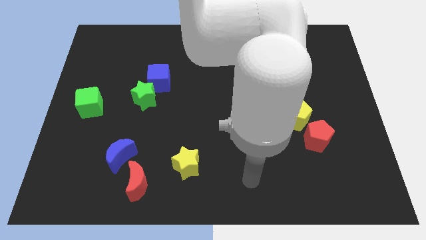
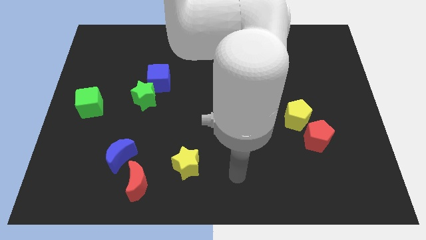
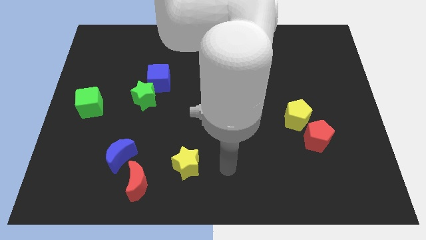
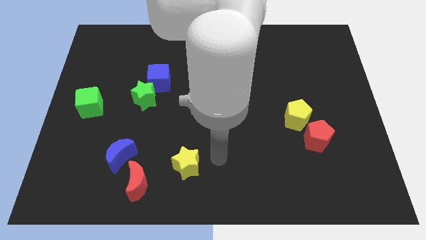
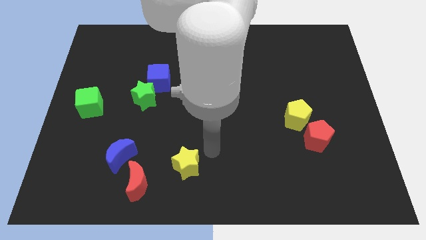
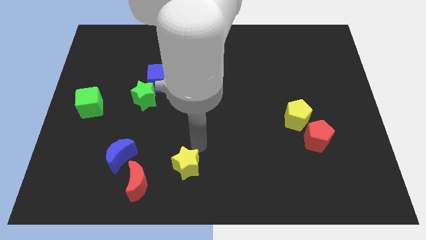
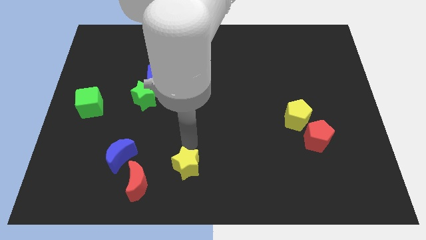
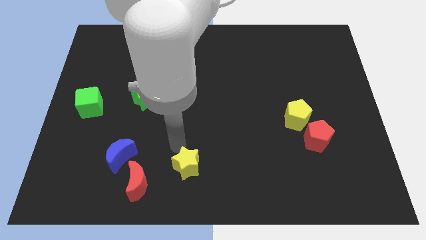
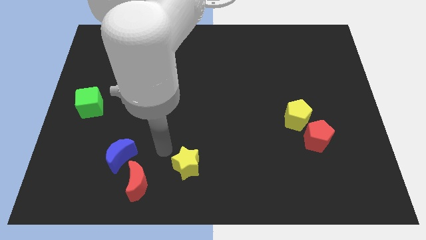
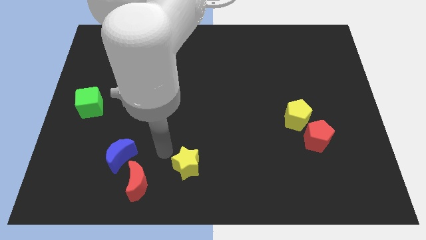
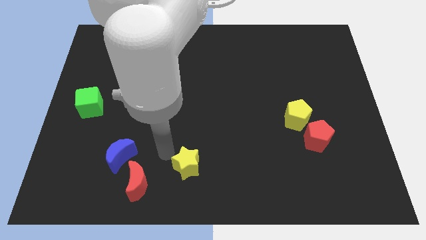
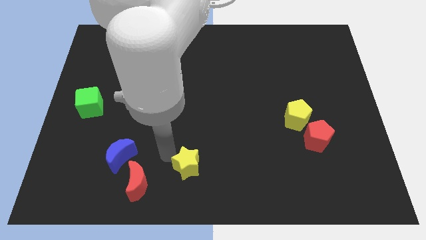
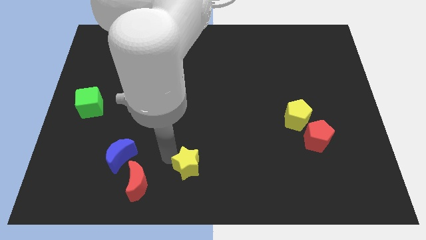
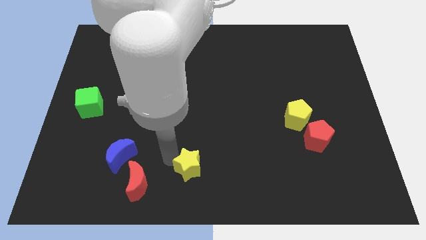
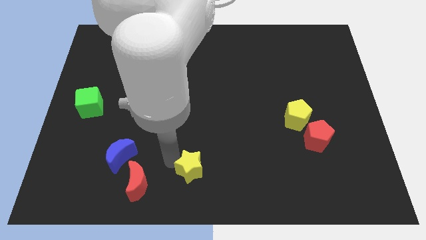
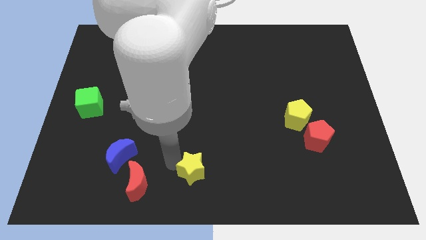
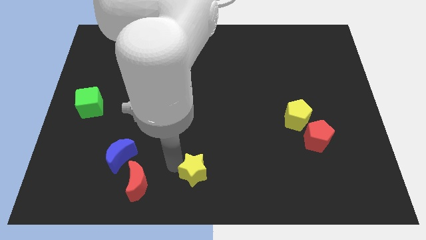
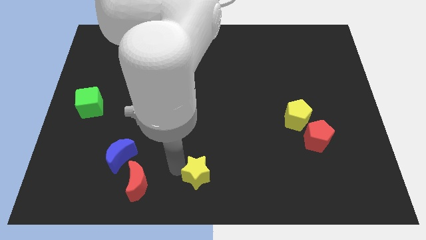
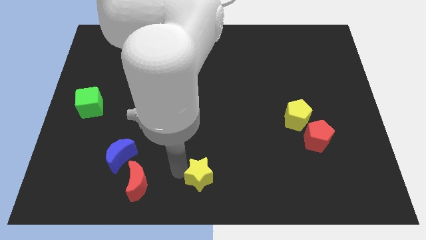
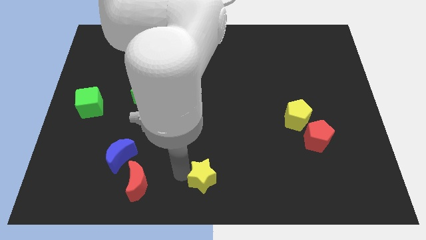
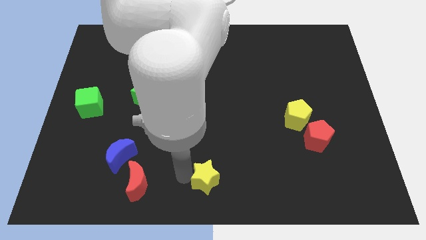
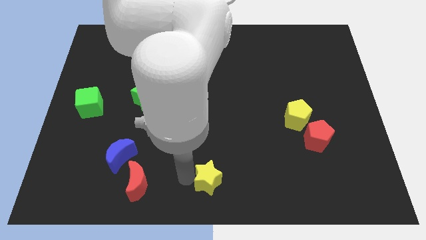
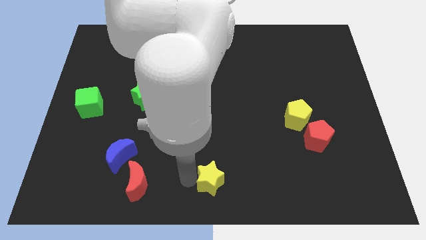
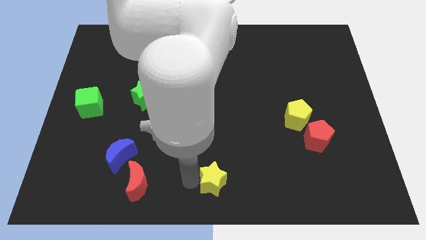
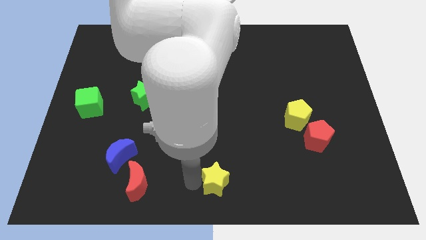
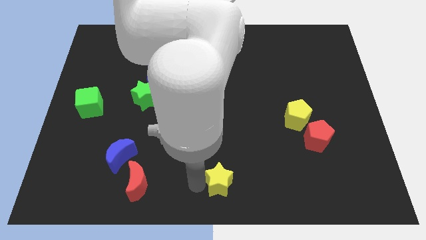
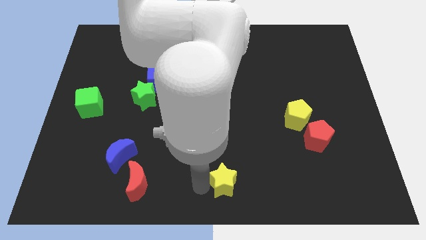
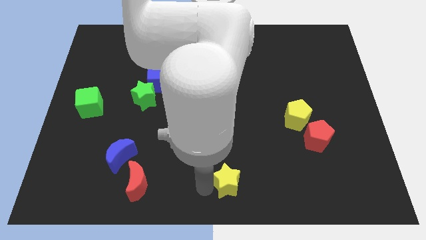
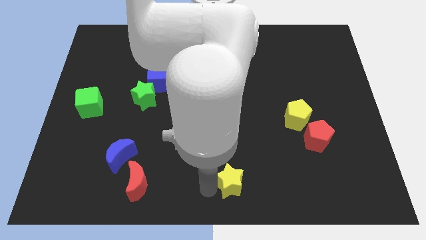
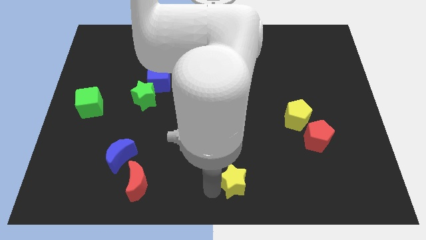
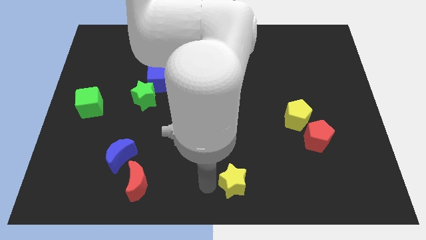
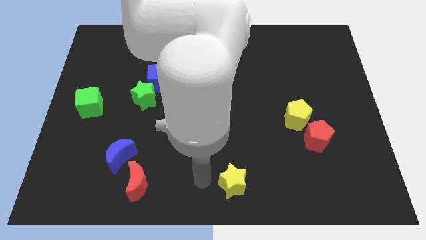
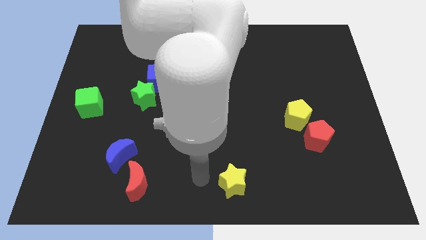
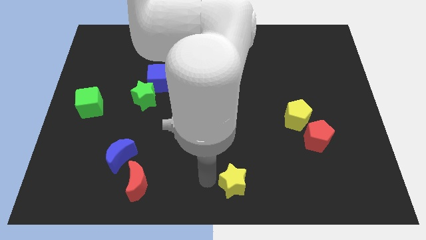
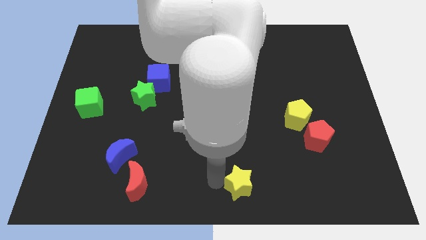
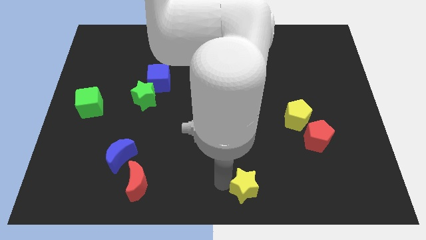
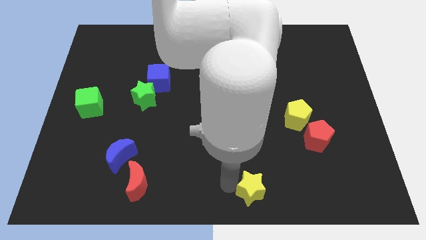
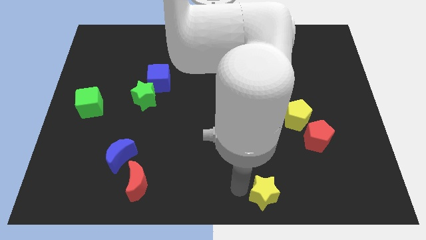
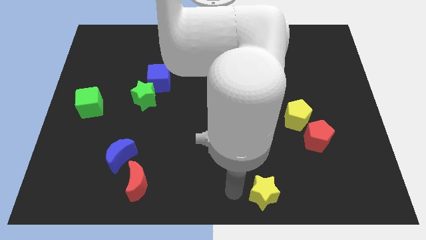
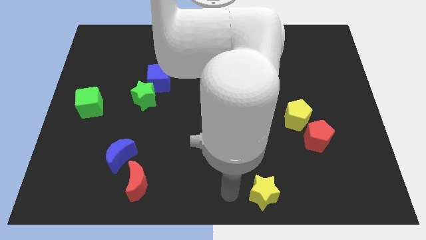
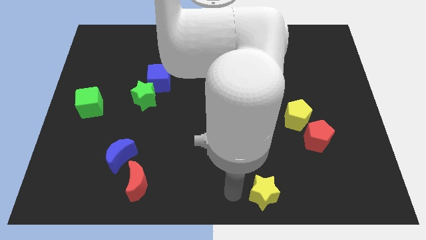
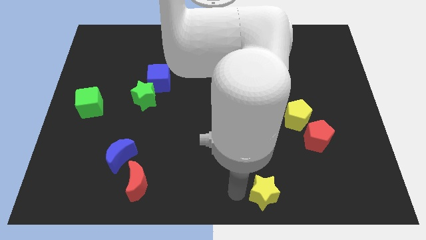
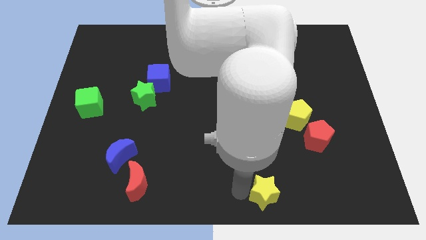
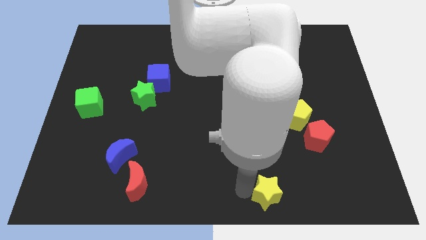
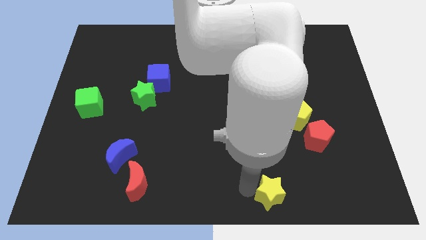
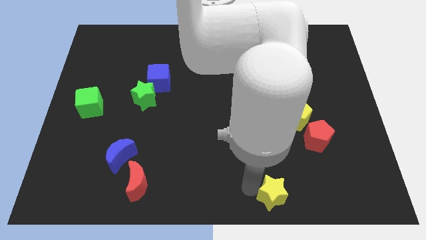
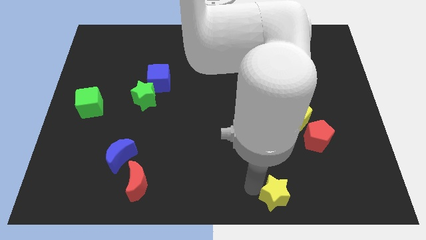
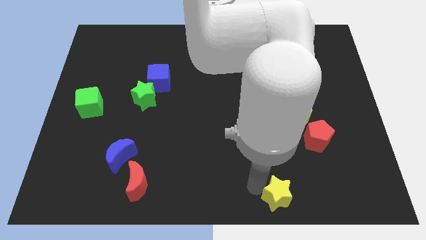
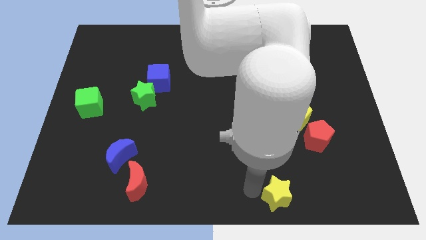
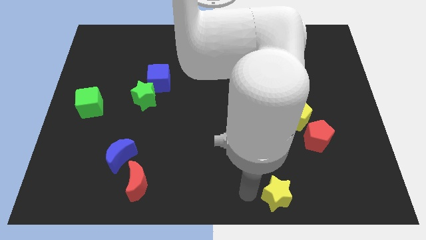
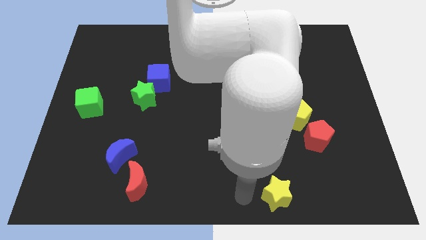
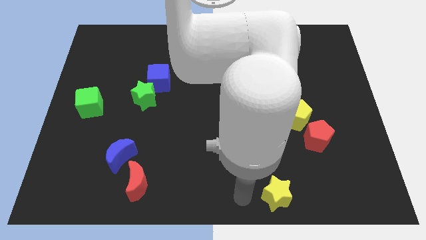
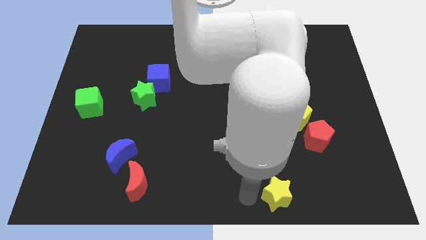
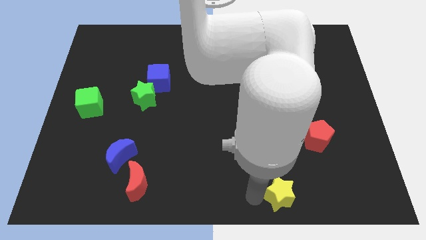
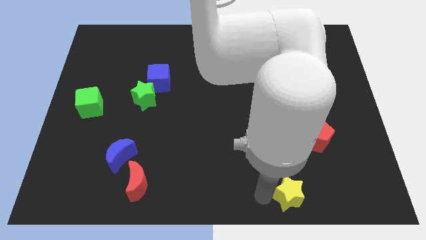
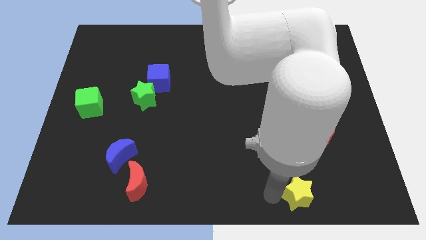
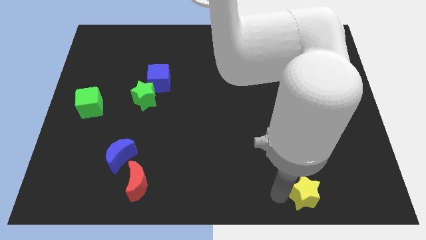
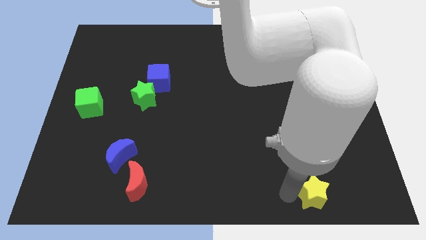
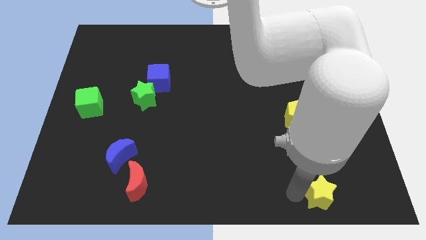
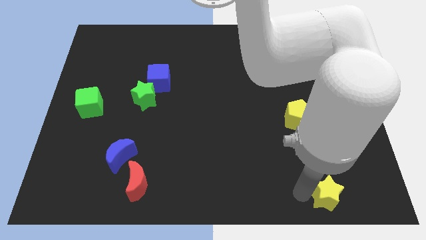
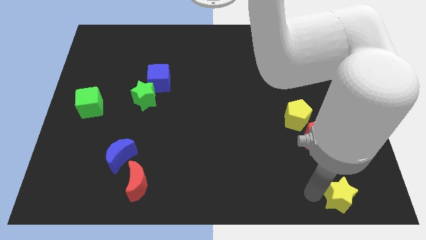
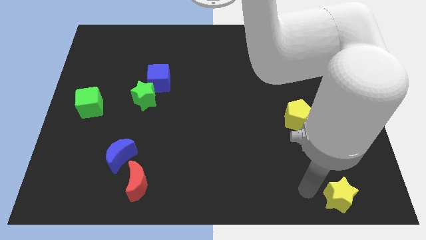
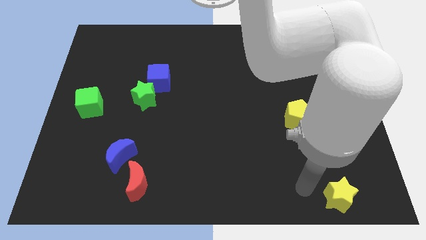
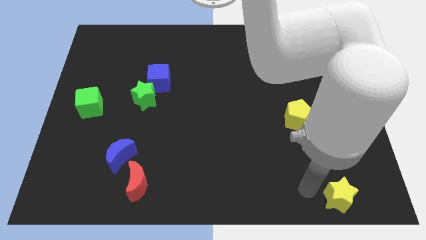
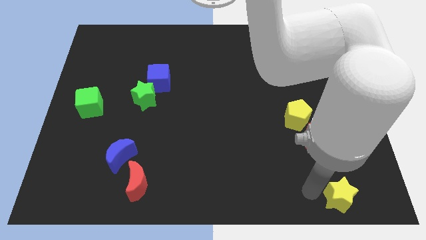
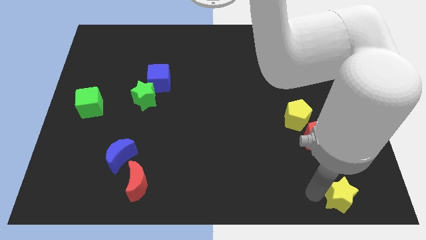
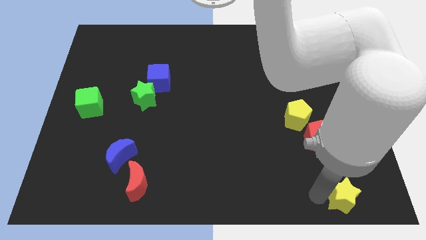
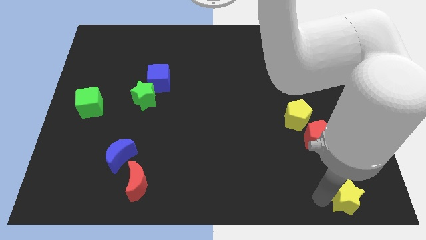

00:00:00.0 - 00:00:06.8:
slide the yellow star to the bottom right
